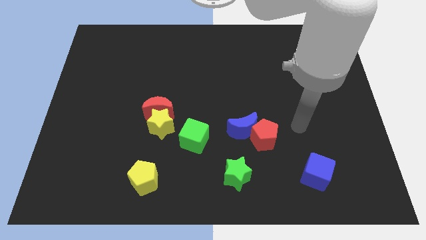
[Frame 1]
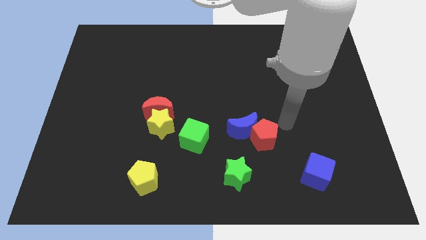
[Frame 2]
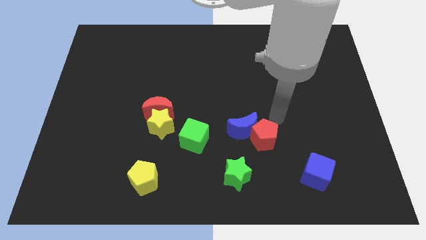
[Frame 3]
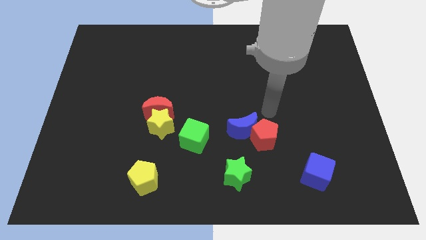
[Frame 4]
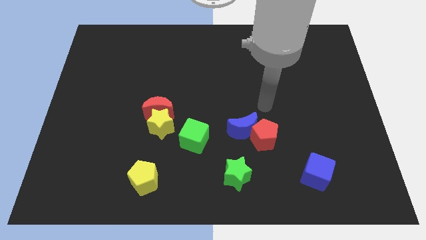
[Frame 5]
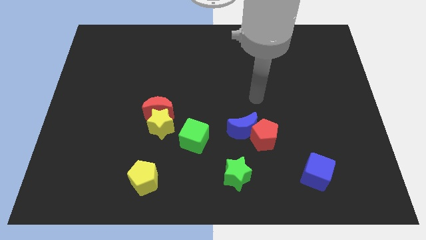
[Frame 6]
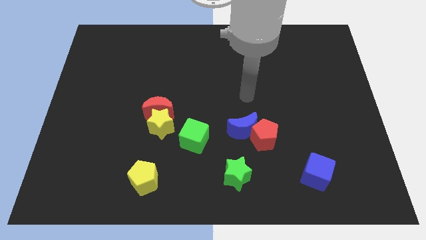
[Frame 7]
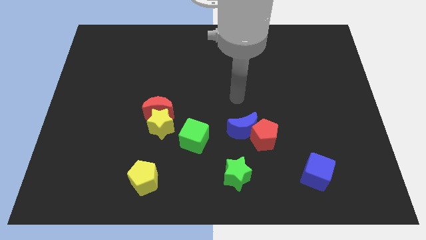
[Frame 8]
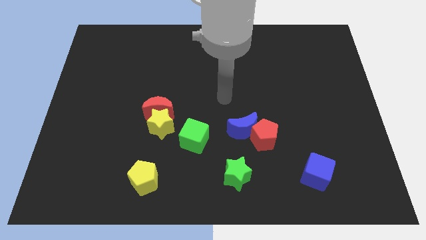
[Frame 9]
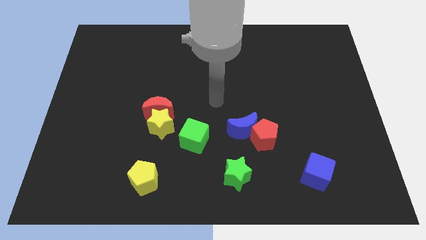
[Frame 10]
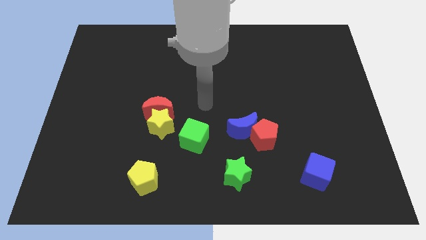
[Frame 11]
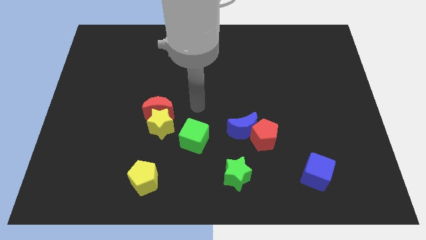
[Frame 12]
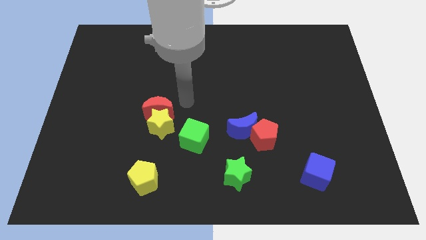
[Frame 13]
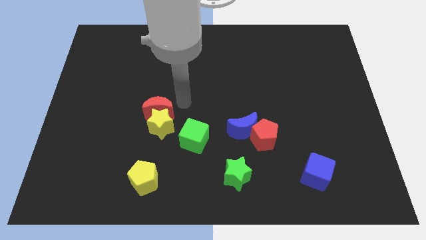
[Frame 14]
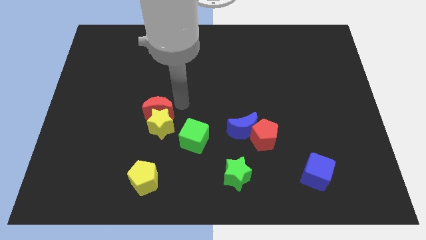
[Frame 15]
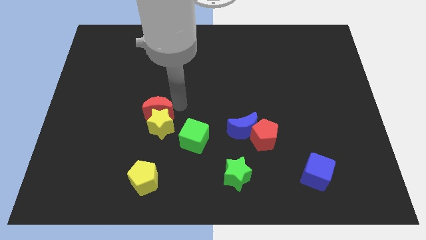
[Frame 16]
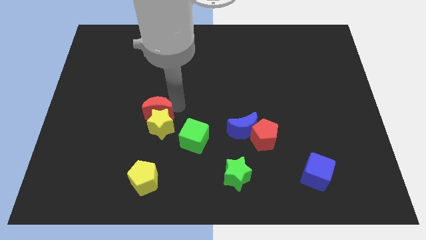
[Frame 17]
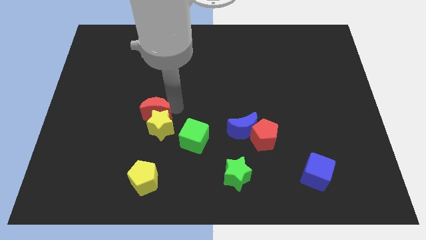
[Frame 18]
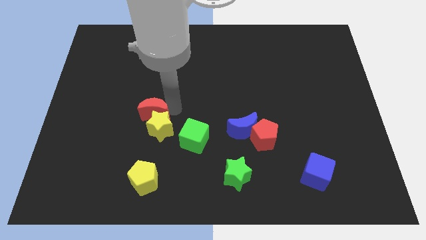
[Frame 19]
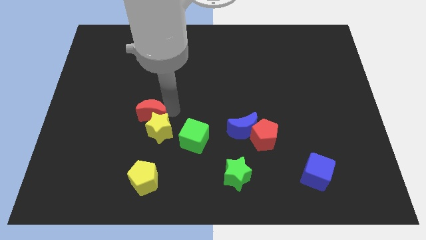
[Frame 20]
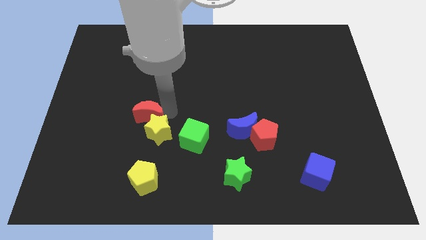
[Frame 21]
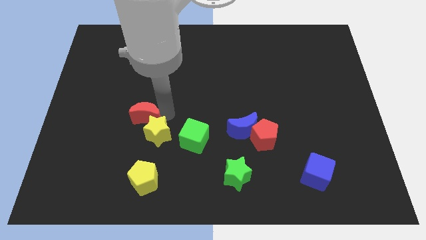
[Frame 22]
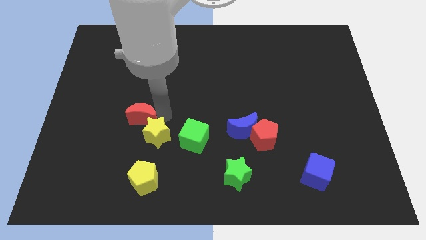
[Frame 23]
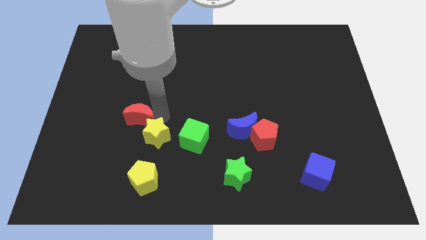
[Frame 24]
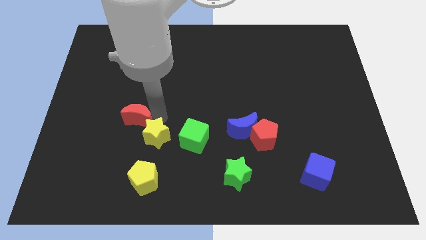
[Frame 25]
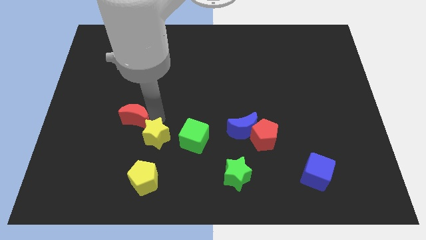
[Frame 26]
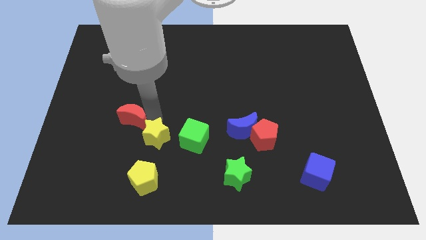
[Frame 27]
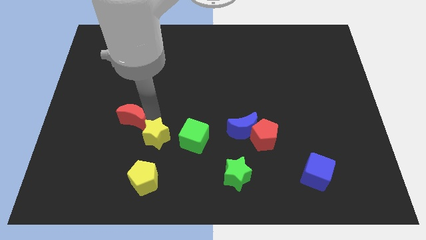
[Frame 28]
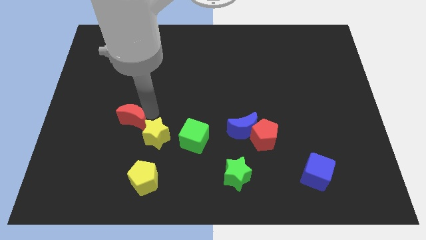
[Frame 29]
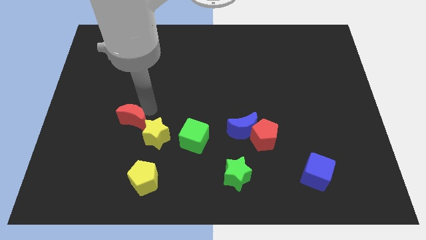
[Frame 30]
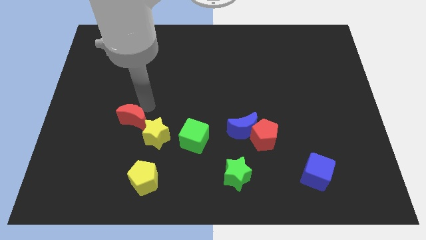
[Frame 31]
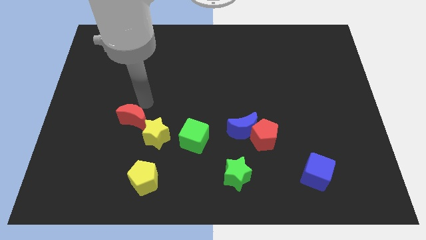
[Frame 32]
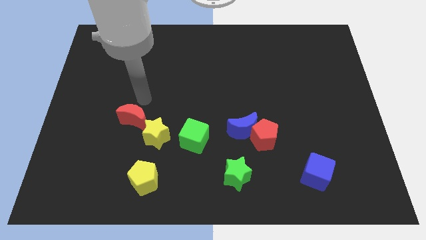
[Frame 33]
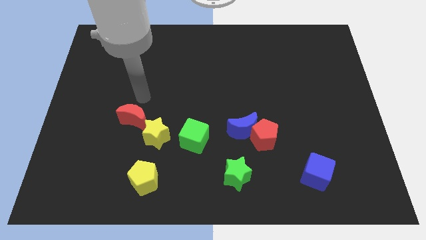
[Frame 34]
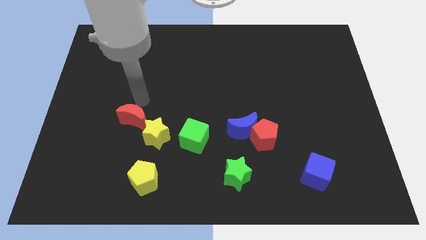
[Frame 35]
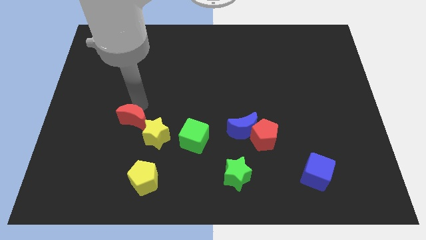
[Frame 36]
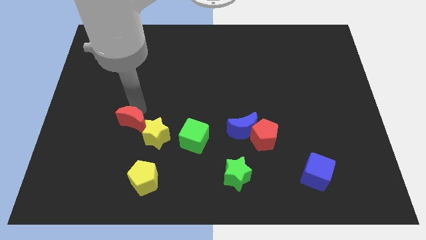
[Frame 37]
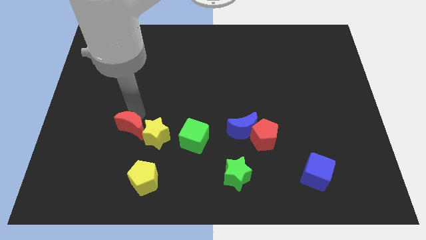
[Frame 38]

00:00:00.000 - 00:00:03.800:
push the red moon diagonally downwards and to the left slightly

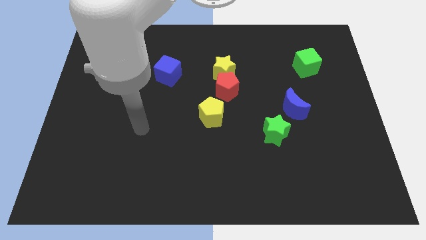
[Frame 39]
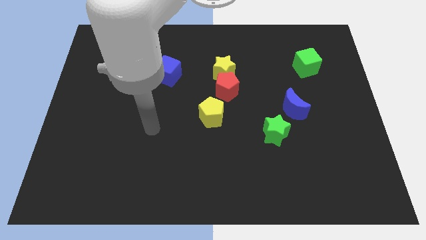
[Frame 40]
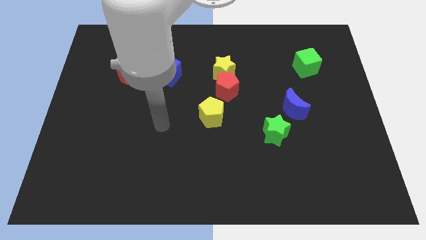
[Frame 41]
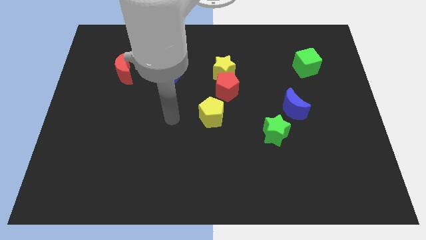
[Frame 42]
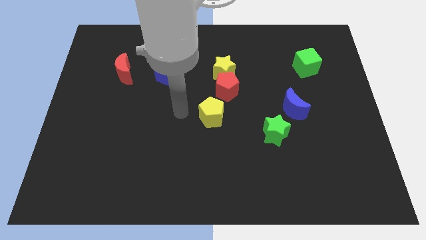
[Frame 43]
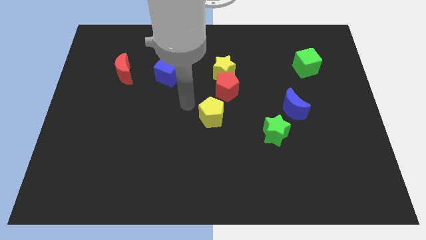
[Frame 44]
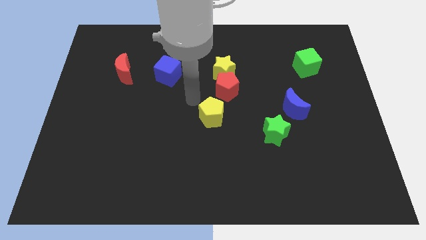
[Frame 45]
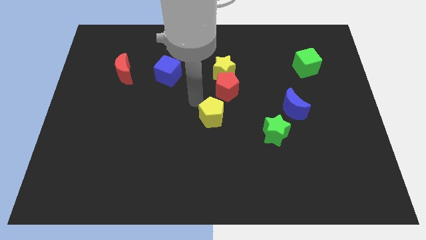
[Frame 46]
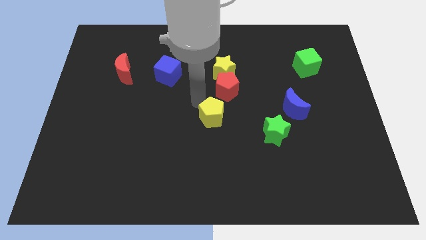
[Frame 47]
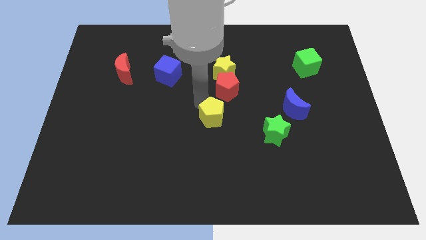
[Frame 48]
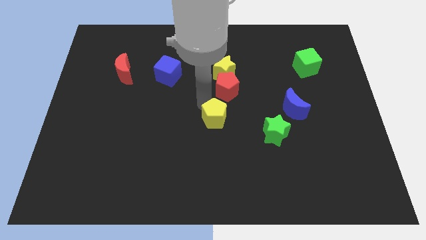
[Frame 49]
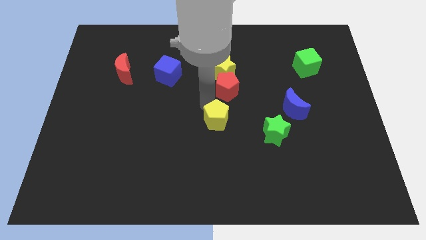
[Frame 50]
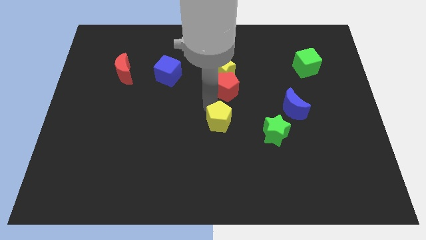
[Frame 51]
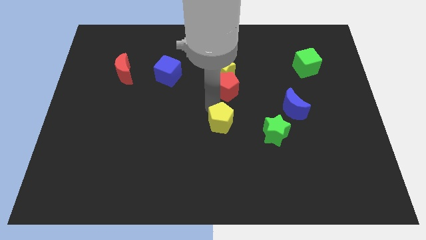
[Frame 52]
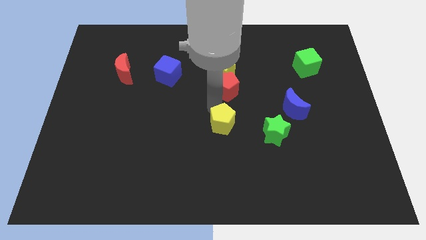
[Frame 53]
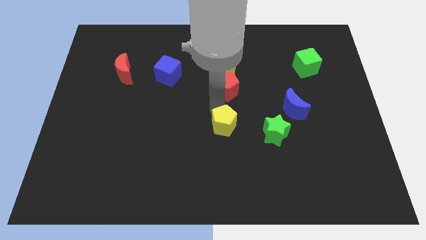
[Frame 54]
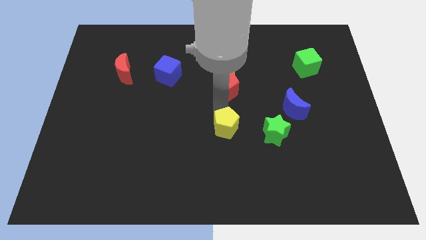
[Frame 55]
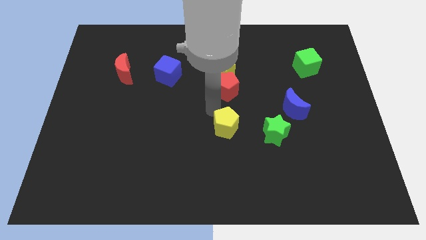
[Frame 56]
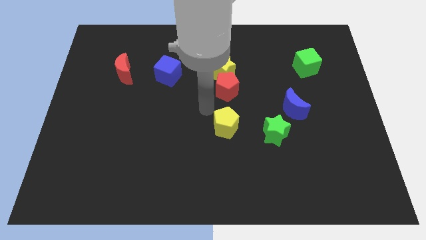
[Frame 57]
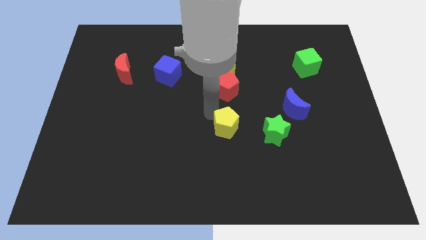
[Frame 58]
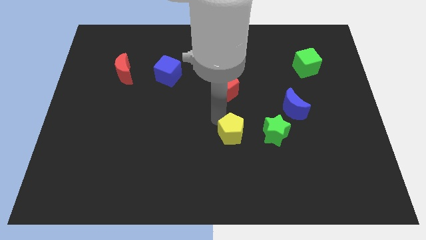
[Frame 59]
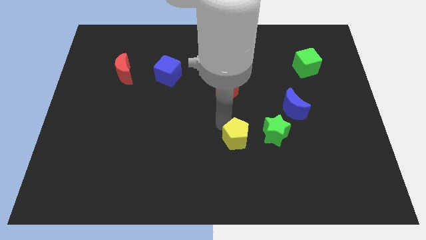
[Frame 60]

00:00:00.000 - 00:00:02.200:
slightly push the yellow pentagon downwards and then to the right

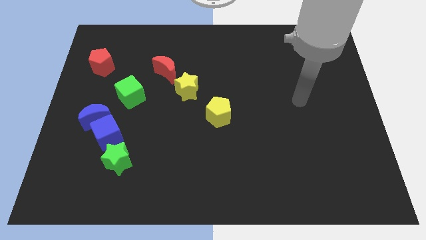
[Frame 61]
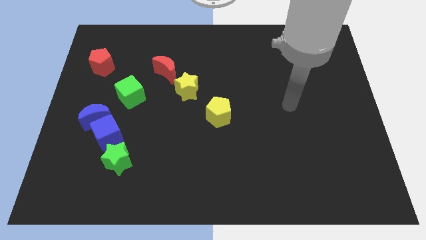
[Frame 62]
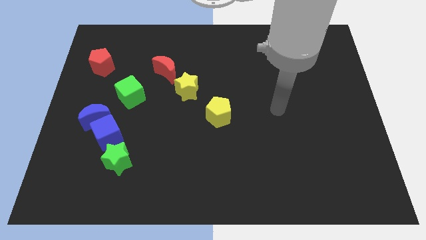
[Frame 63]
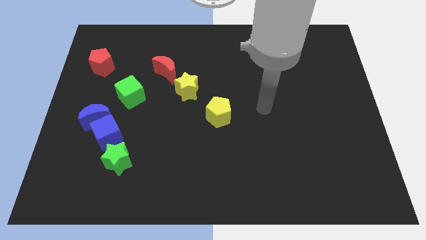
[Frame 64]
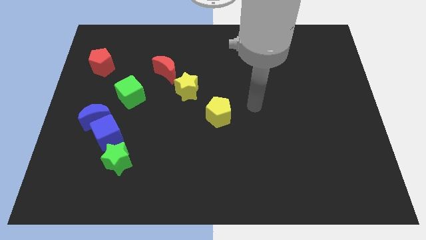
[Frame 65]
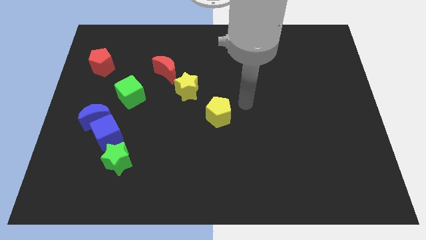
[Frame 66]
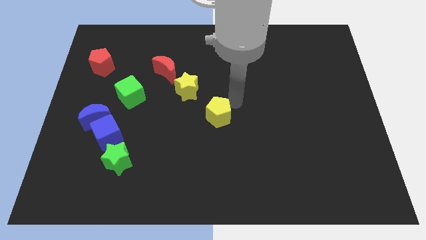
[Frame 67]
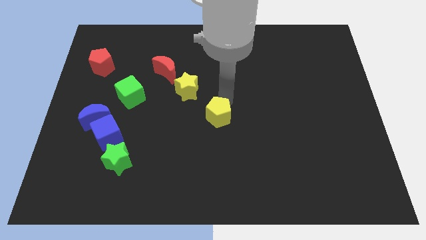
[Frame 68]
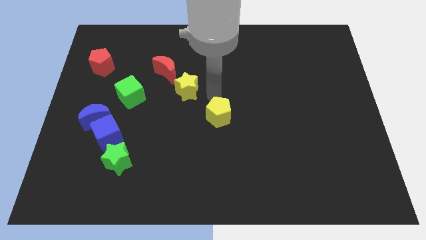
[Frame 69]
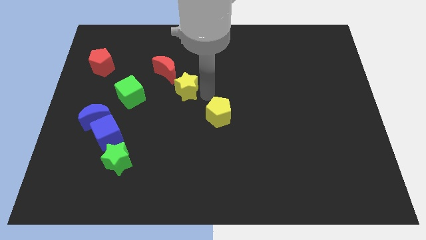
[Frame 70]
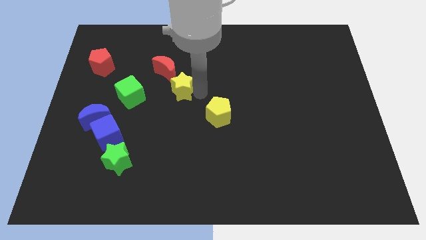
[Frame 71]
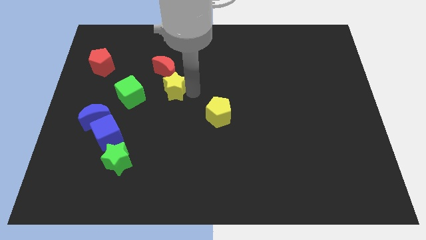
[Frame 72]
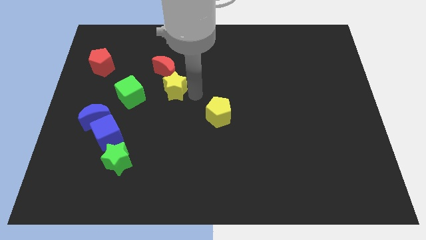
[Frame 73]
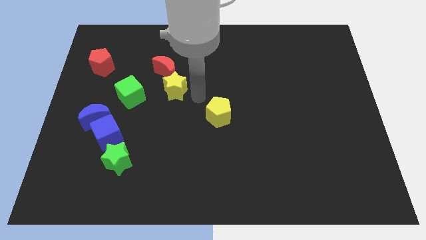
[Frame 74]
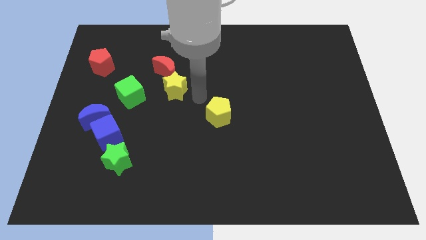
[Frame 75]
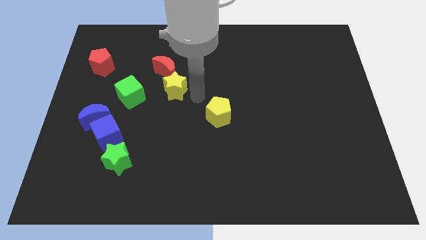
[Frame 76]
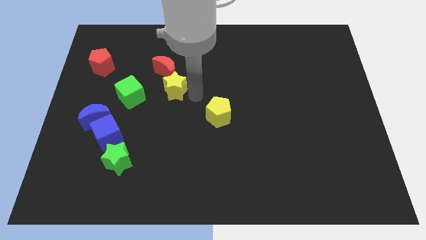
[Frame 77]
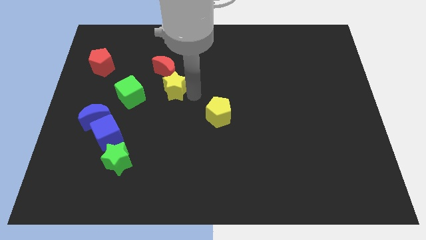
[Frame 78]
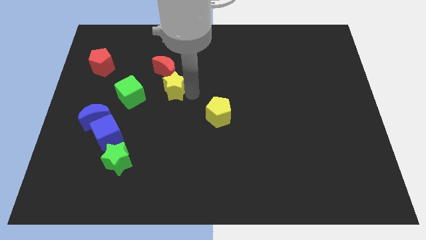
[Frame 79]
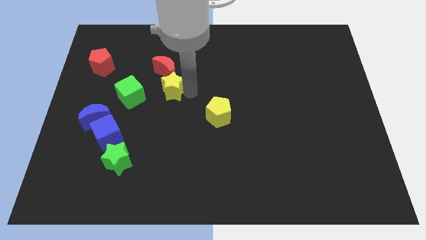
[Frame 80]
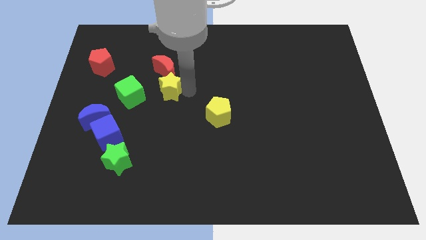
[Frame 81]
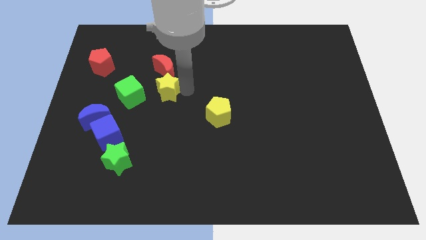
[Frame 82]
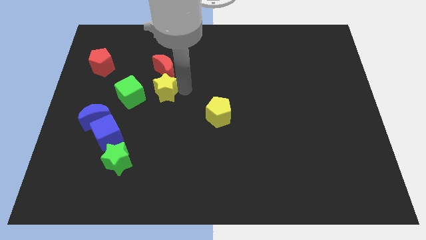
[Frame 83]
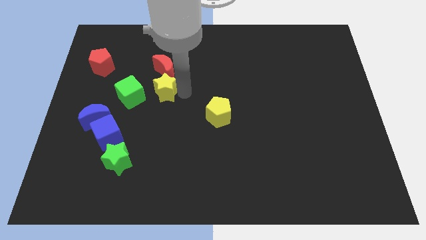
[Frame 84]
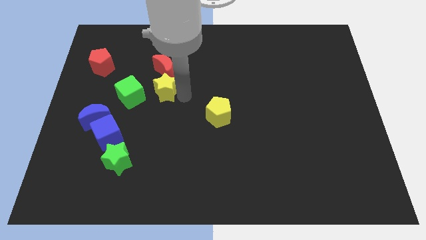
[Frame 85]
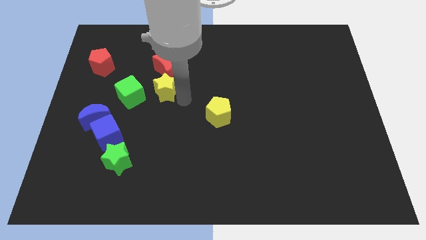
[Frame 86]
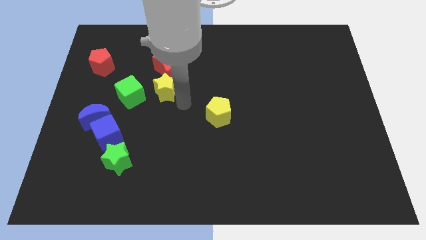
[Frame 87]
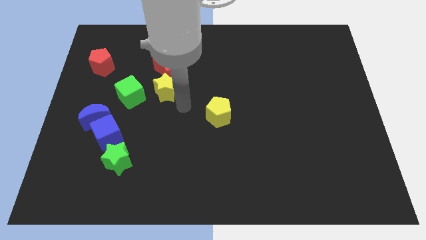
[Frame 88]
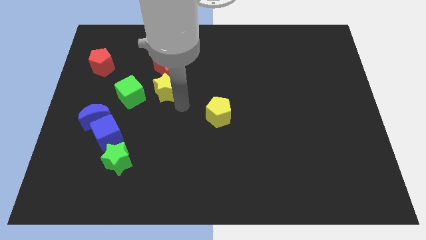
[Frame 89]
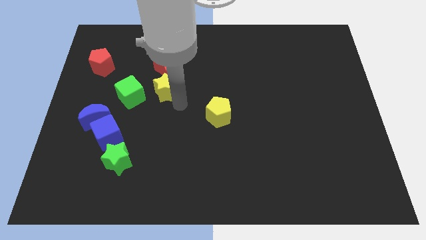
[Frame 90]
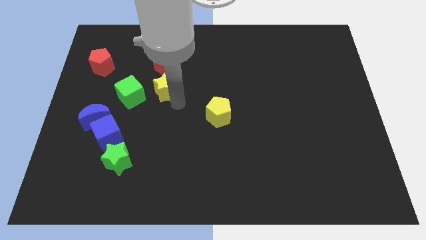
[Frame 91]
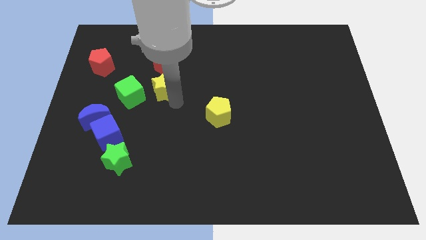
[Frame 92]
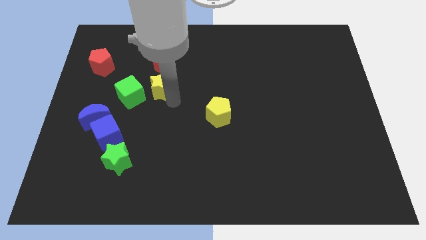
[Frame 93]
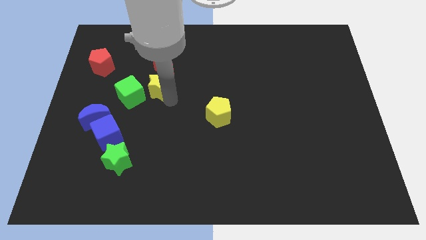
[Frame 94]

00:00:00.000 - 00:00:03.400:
slightly move the yellow star to the left
